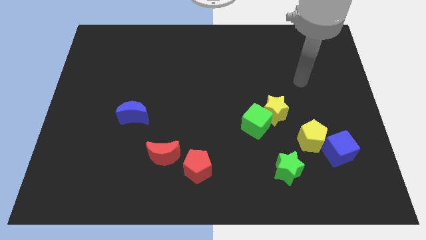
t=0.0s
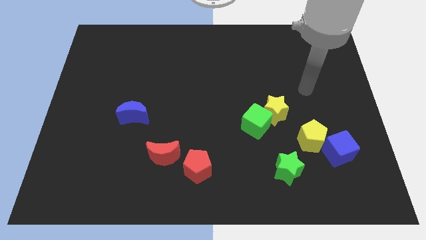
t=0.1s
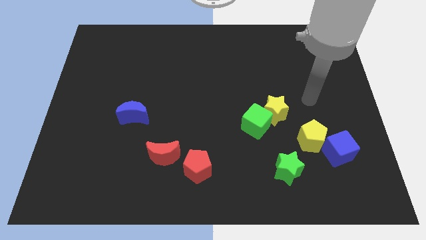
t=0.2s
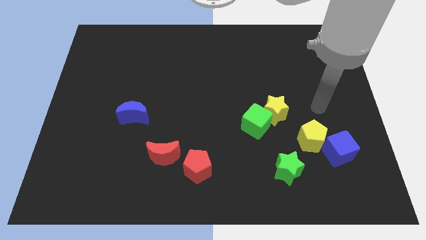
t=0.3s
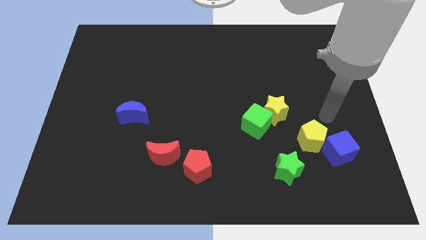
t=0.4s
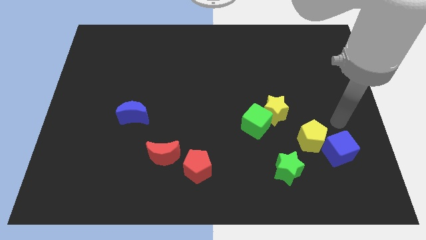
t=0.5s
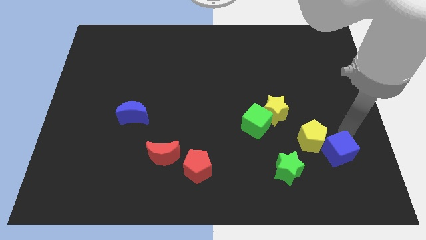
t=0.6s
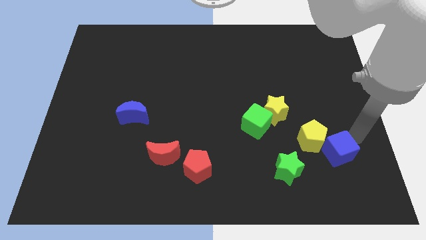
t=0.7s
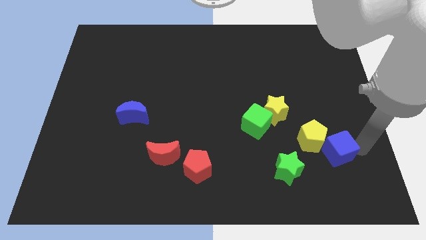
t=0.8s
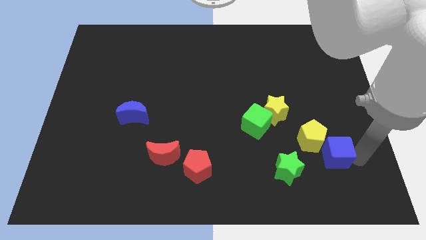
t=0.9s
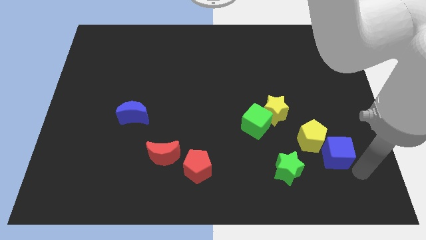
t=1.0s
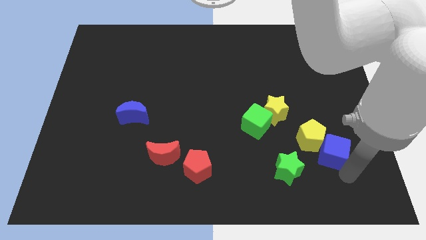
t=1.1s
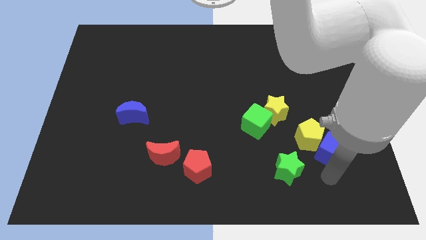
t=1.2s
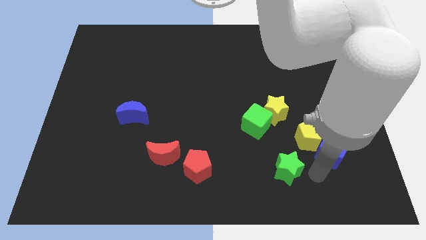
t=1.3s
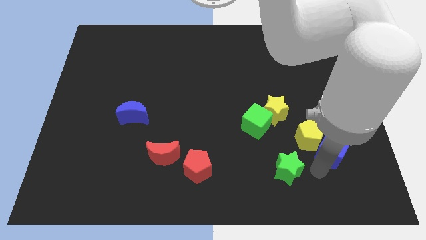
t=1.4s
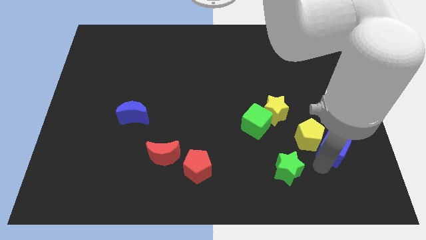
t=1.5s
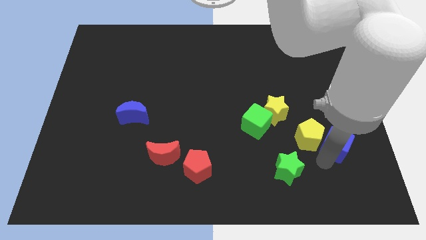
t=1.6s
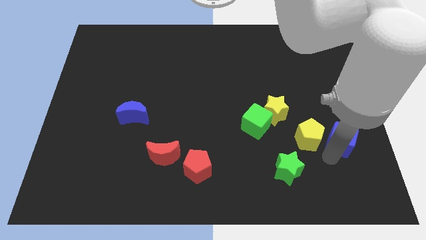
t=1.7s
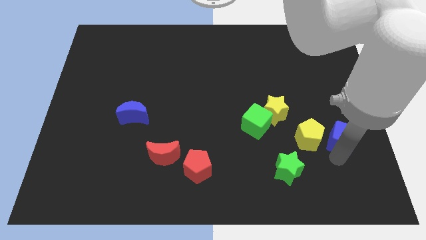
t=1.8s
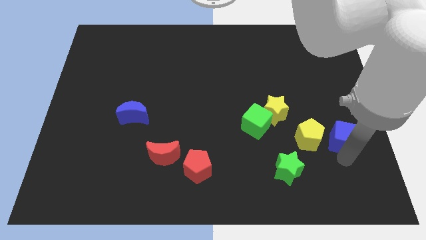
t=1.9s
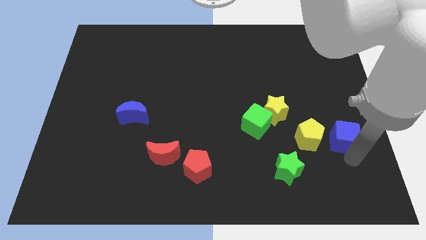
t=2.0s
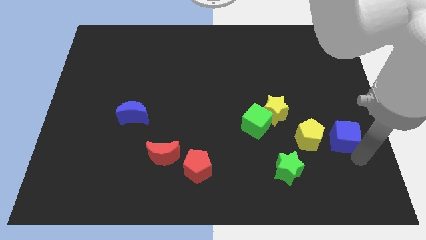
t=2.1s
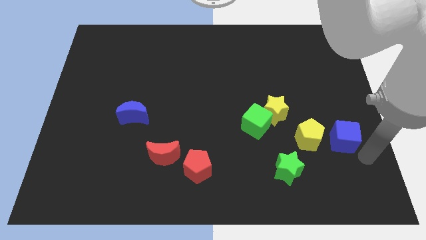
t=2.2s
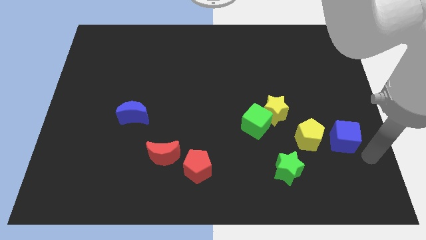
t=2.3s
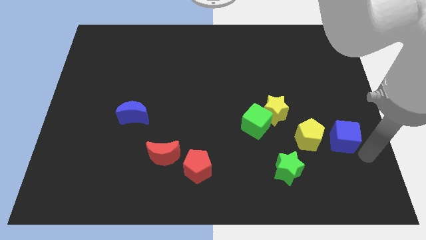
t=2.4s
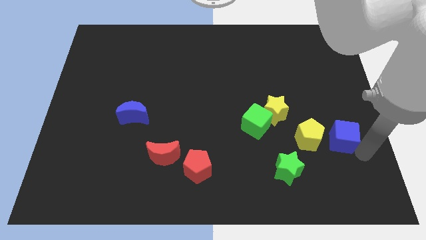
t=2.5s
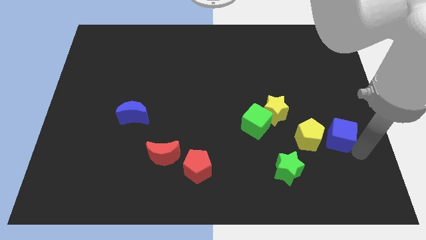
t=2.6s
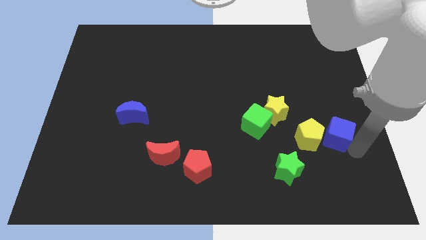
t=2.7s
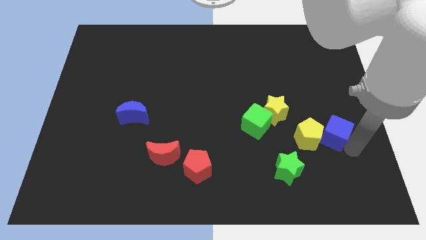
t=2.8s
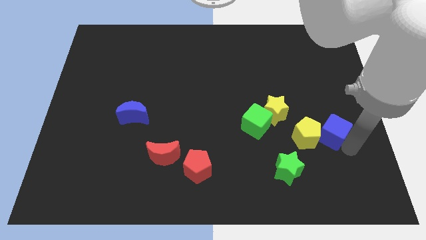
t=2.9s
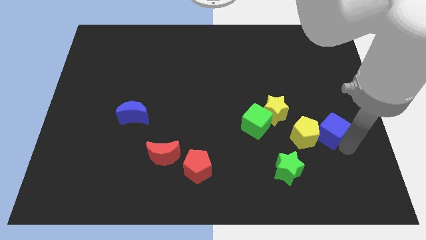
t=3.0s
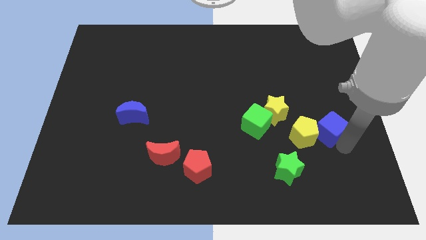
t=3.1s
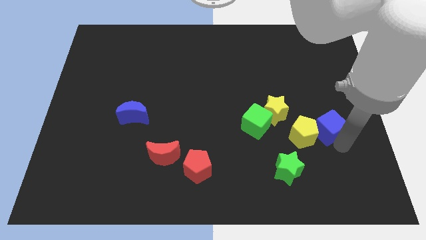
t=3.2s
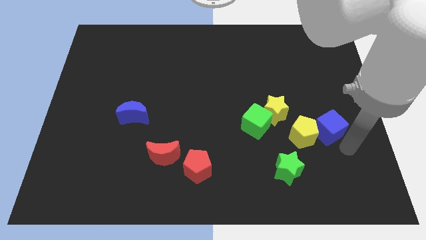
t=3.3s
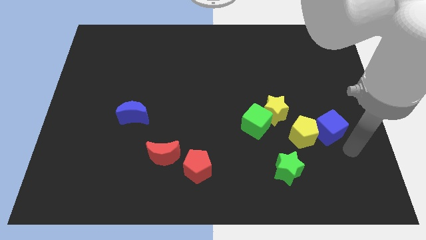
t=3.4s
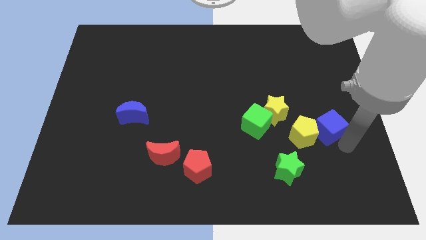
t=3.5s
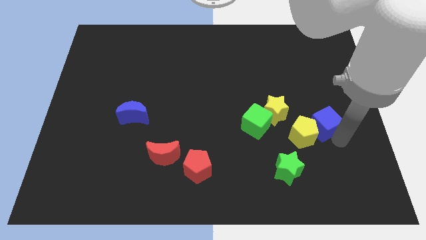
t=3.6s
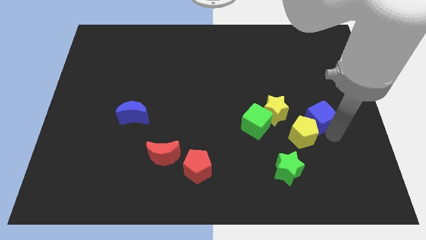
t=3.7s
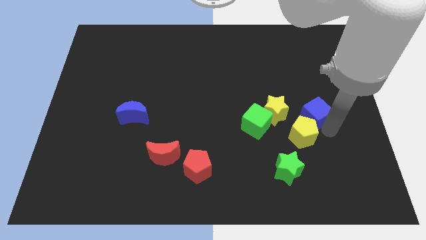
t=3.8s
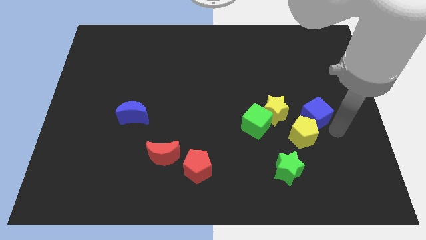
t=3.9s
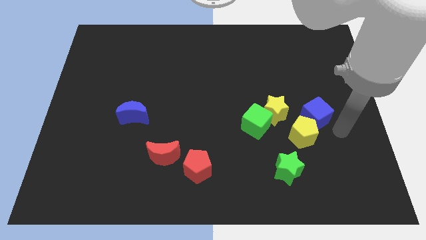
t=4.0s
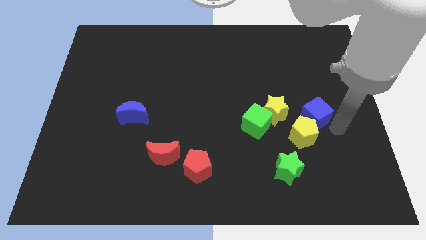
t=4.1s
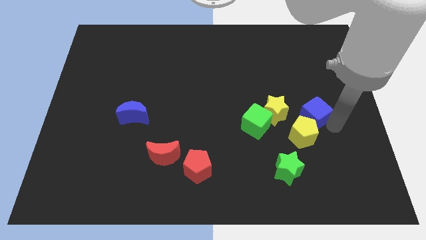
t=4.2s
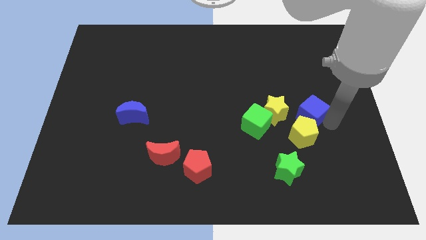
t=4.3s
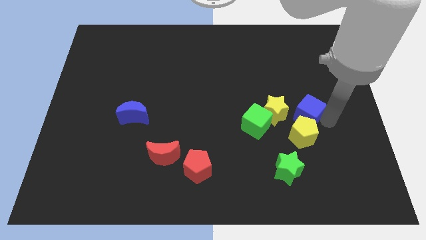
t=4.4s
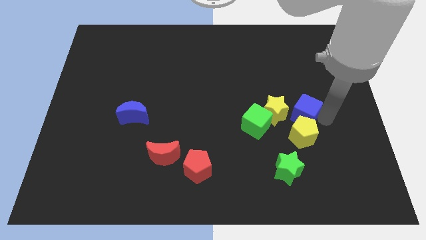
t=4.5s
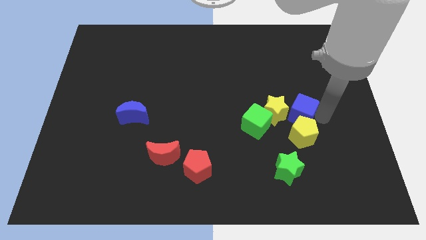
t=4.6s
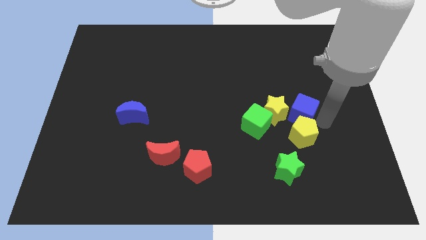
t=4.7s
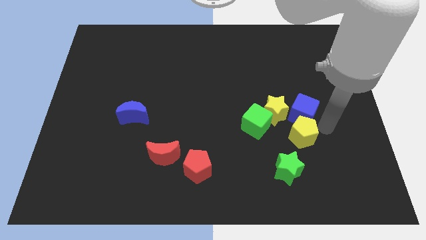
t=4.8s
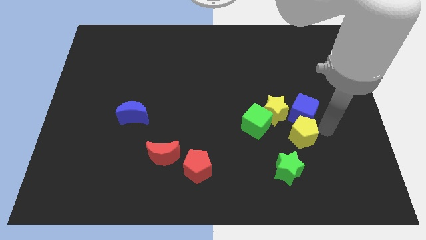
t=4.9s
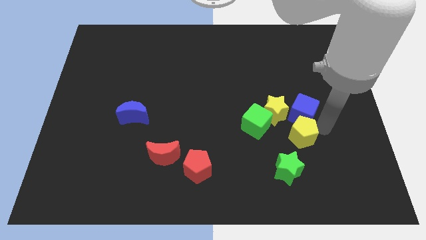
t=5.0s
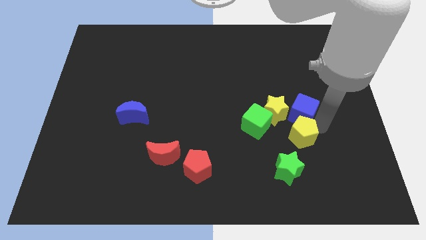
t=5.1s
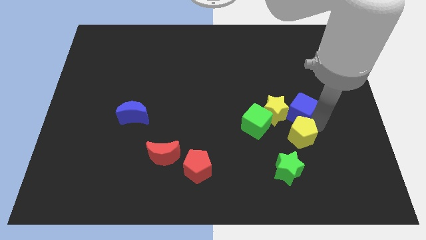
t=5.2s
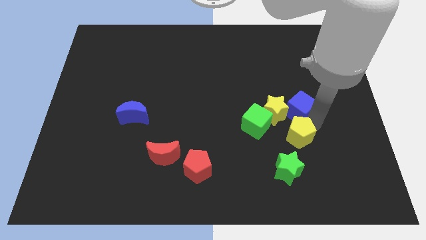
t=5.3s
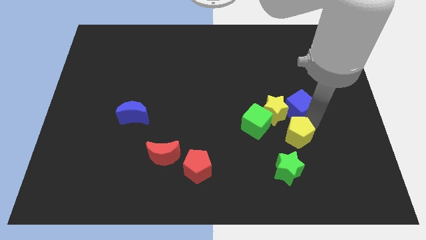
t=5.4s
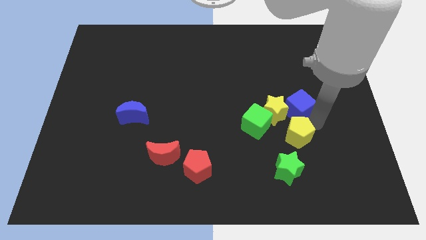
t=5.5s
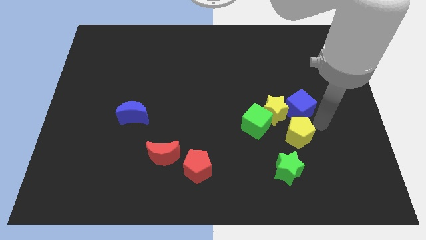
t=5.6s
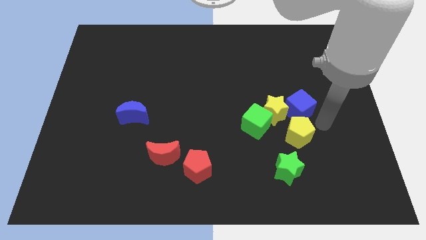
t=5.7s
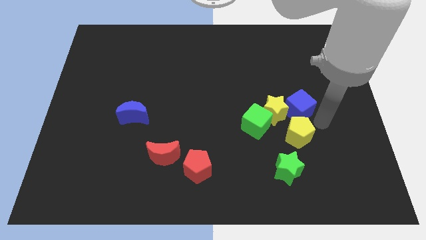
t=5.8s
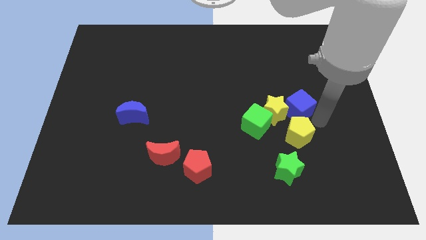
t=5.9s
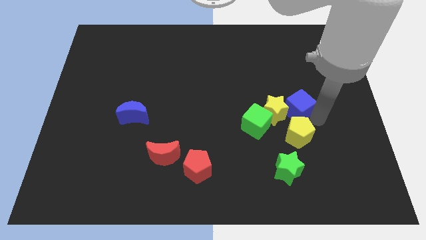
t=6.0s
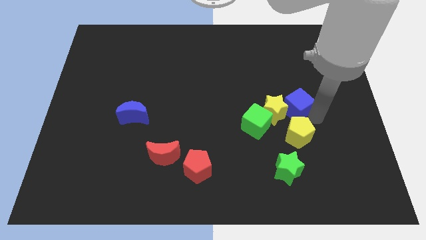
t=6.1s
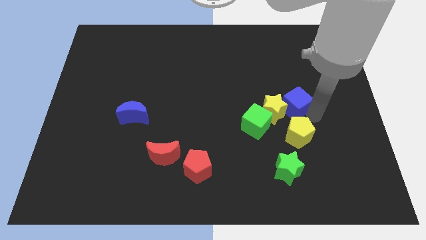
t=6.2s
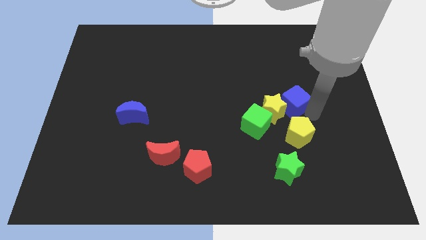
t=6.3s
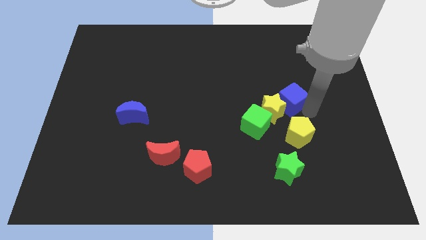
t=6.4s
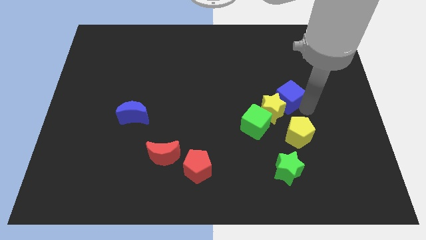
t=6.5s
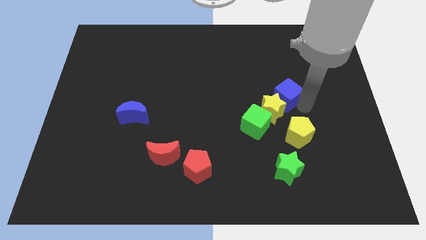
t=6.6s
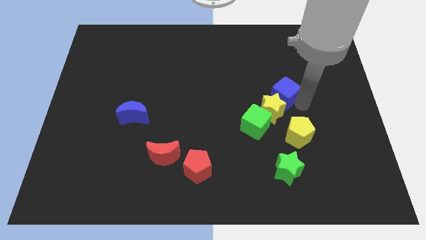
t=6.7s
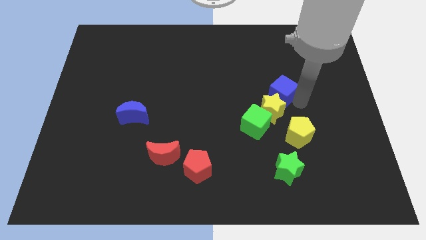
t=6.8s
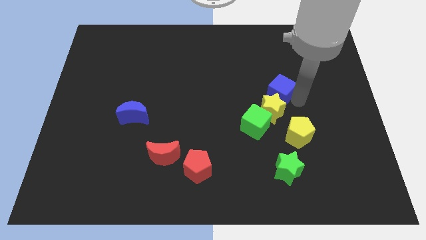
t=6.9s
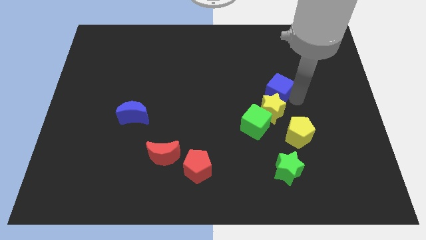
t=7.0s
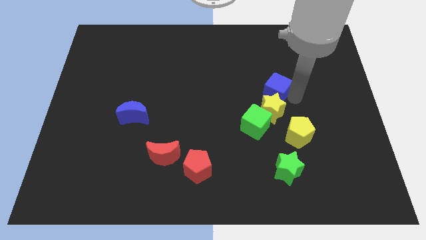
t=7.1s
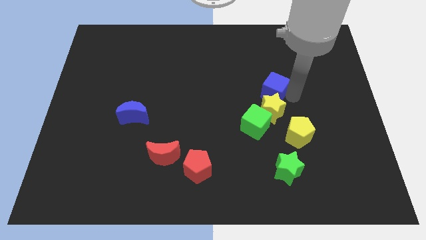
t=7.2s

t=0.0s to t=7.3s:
push the blue cube upwards and then left
